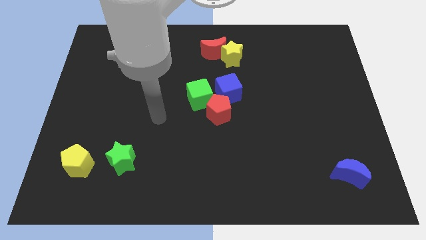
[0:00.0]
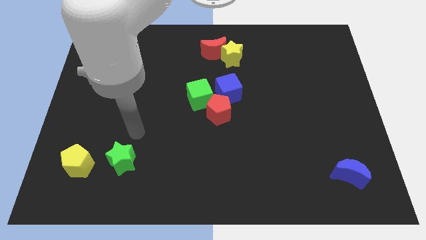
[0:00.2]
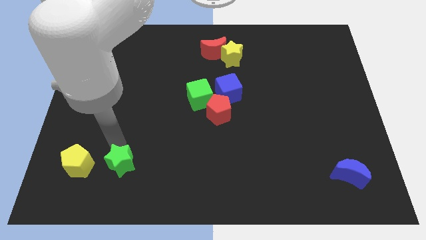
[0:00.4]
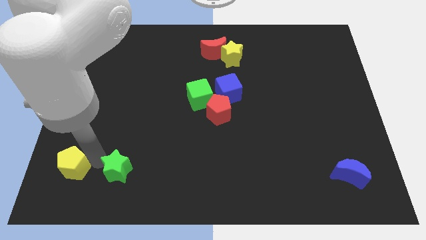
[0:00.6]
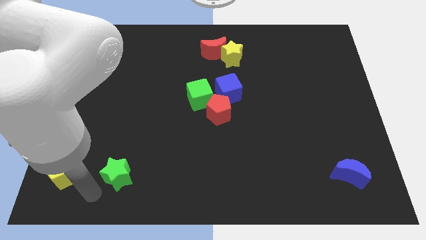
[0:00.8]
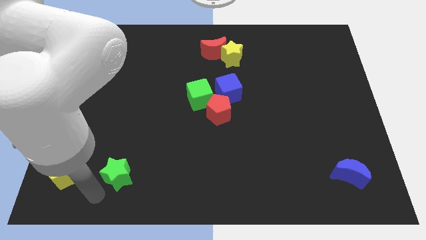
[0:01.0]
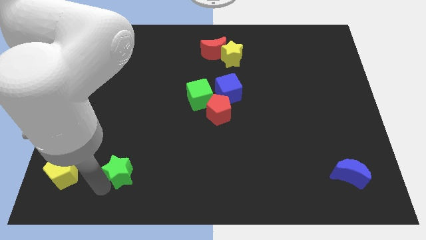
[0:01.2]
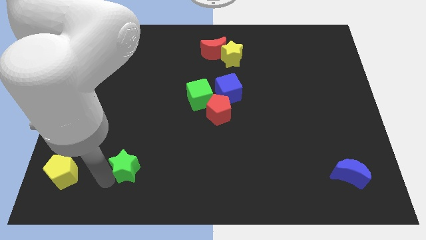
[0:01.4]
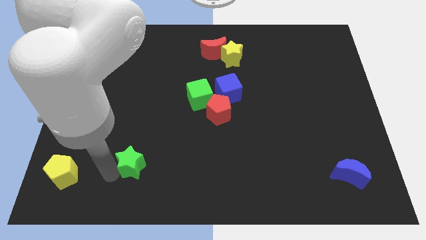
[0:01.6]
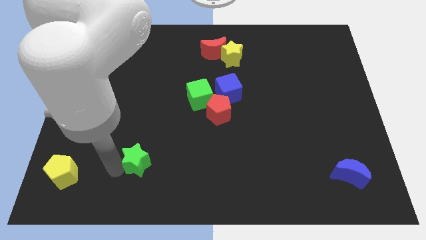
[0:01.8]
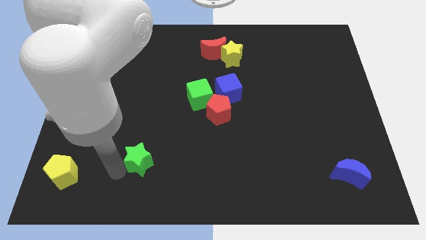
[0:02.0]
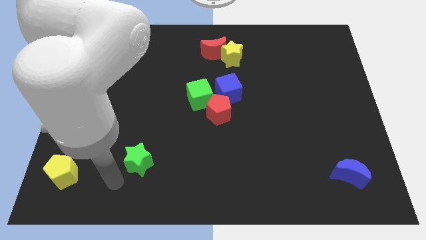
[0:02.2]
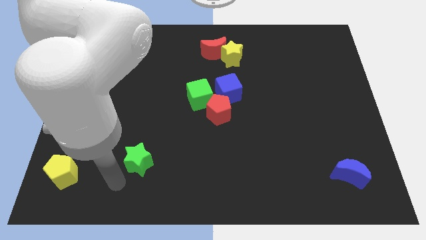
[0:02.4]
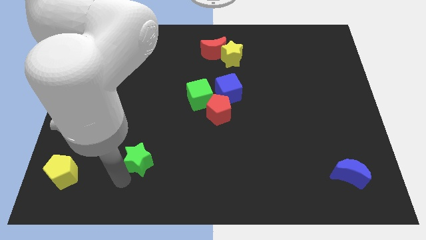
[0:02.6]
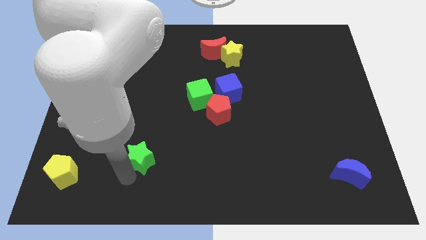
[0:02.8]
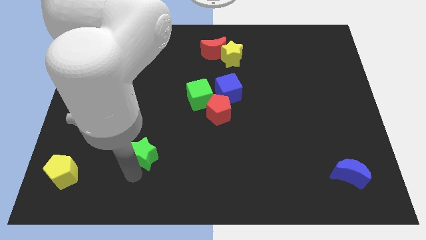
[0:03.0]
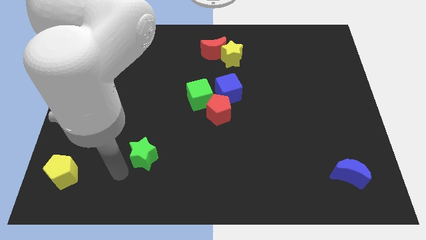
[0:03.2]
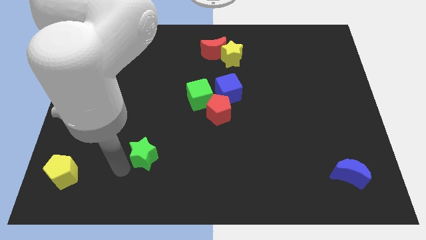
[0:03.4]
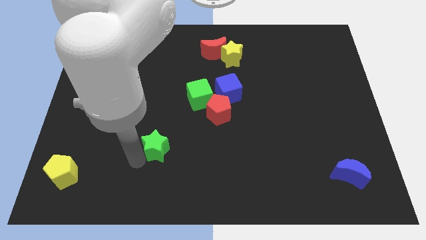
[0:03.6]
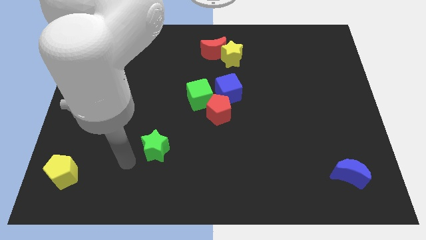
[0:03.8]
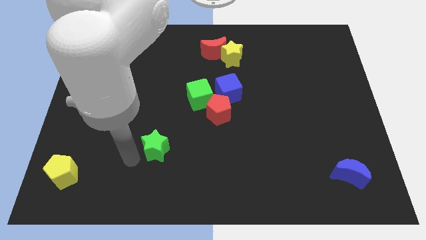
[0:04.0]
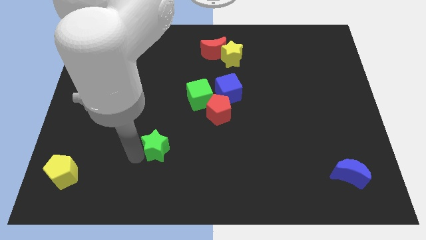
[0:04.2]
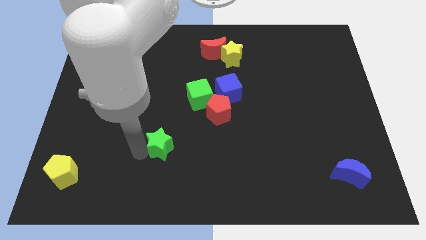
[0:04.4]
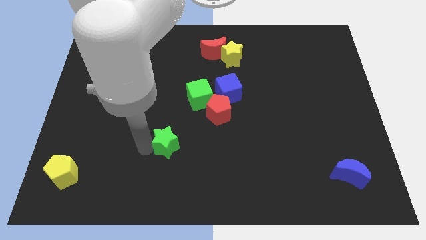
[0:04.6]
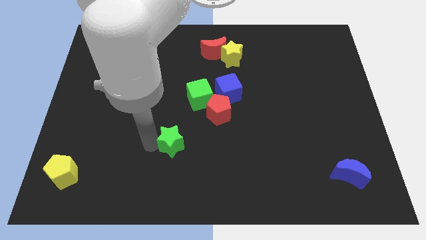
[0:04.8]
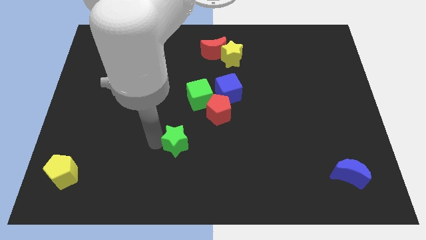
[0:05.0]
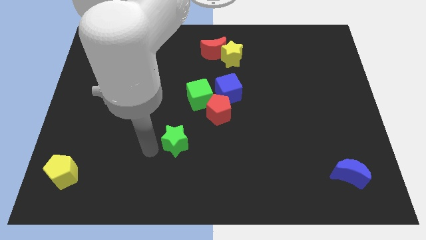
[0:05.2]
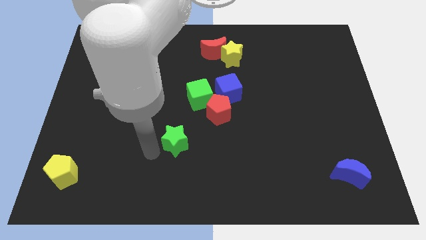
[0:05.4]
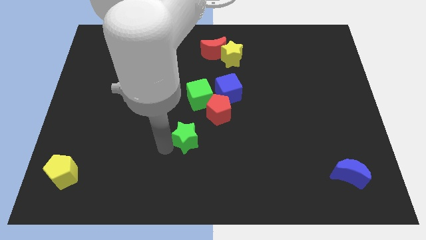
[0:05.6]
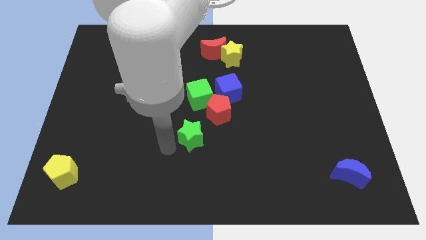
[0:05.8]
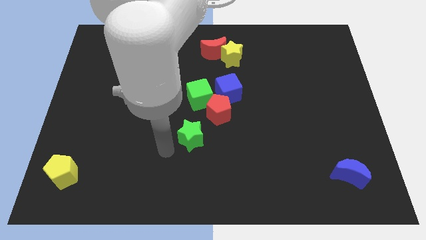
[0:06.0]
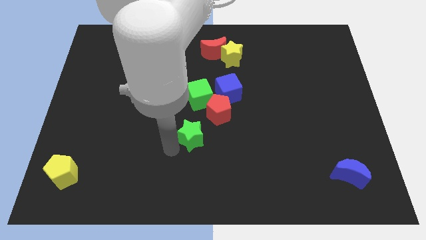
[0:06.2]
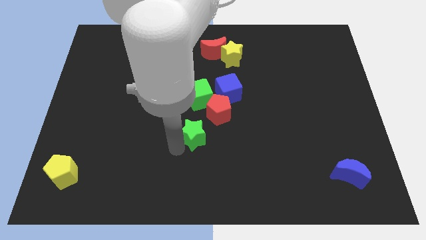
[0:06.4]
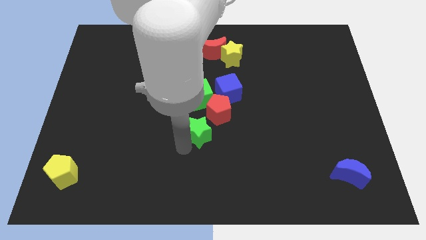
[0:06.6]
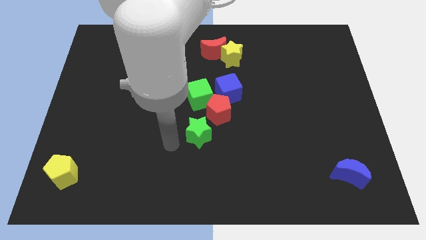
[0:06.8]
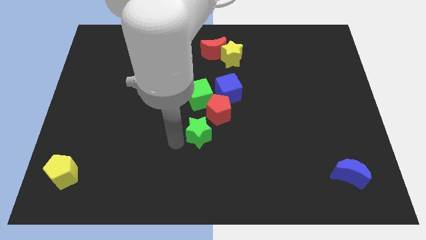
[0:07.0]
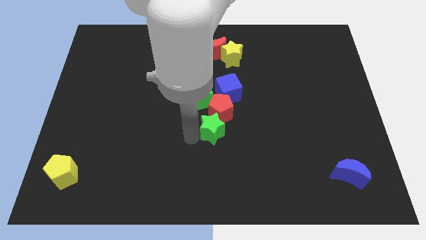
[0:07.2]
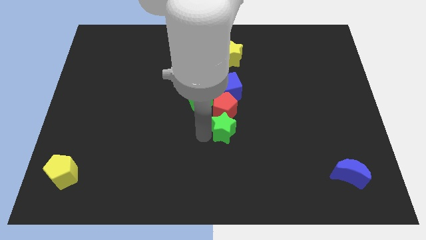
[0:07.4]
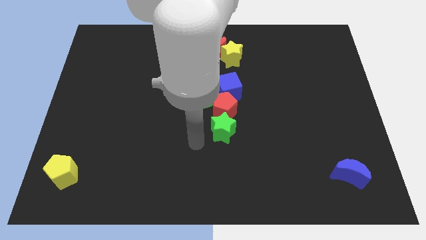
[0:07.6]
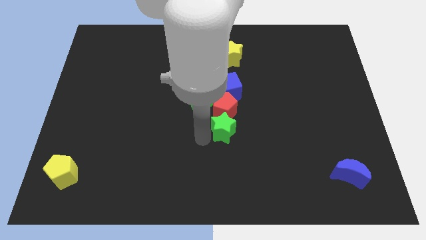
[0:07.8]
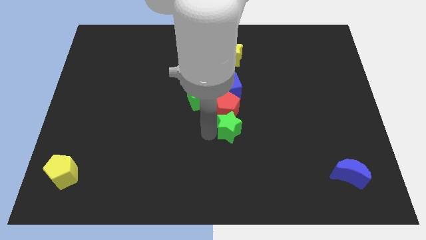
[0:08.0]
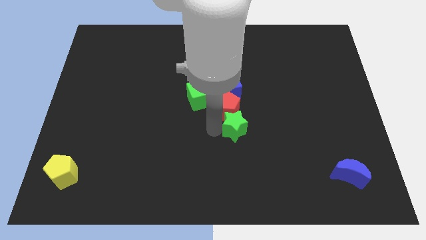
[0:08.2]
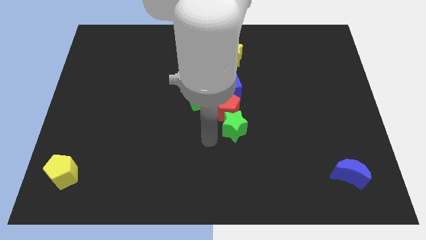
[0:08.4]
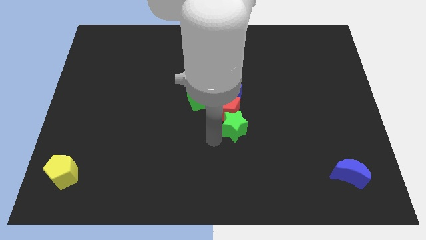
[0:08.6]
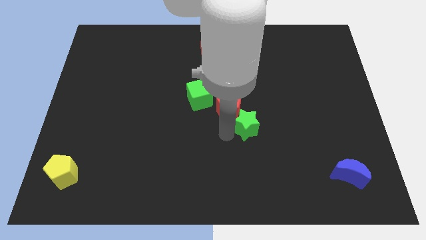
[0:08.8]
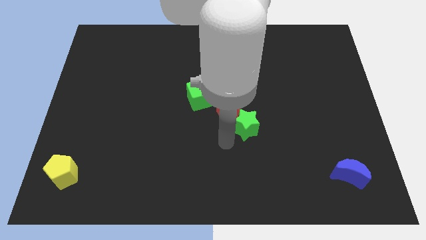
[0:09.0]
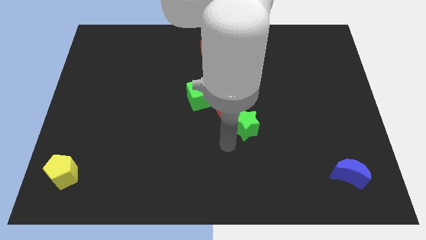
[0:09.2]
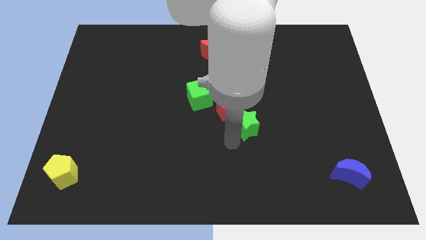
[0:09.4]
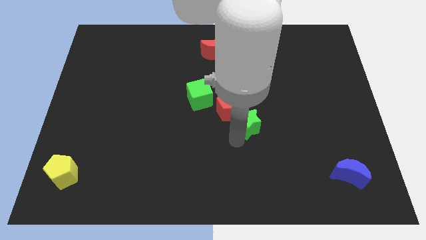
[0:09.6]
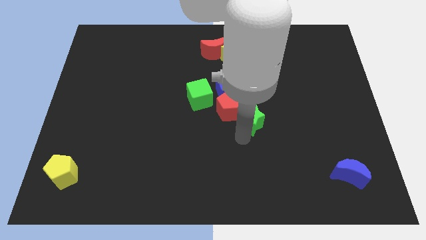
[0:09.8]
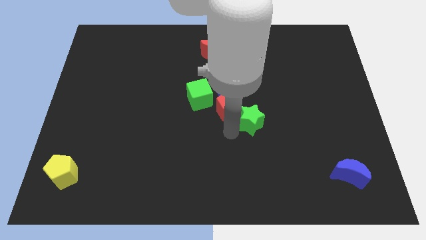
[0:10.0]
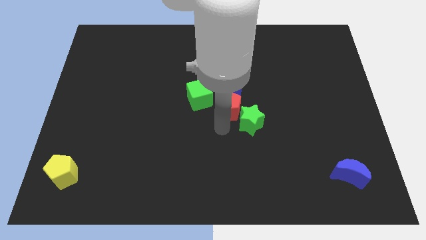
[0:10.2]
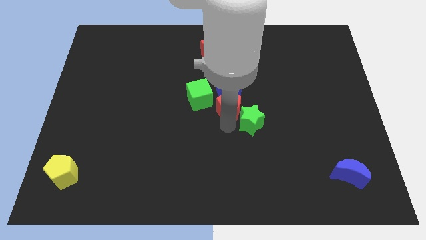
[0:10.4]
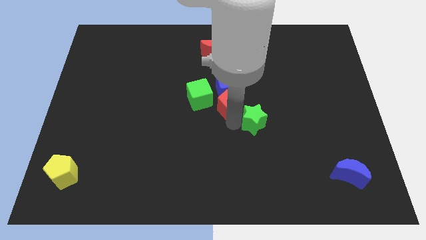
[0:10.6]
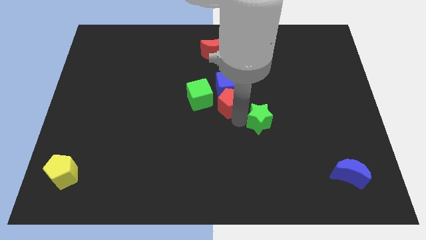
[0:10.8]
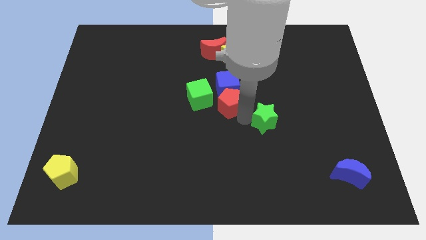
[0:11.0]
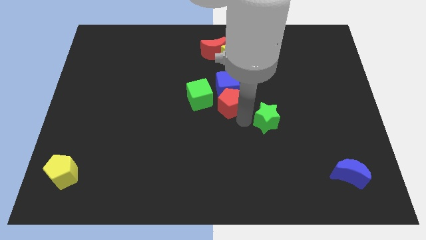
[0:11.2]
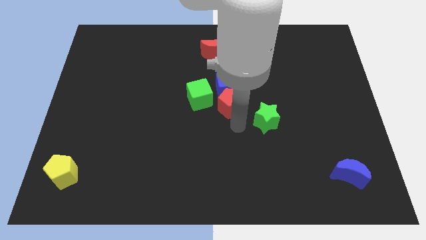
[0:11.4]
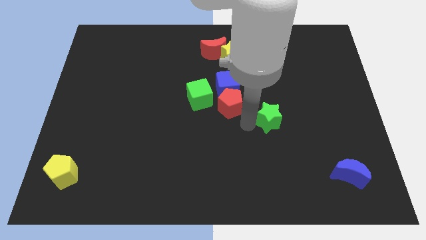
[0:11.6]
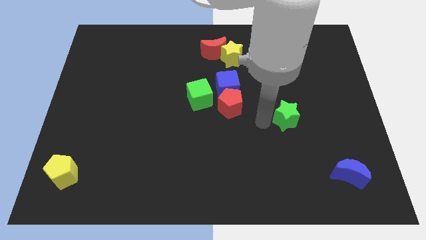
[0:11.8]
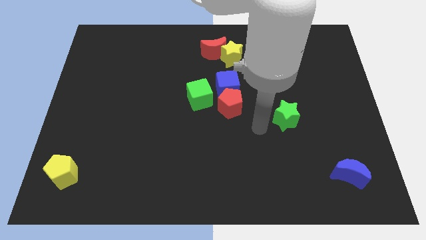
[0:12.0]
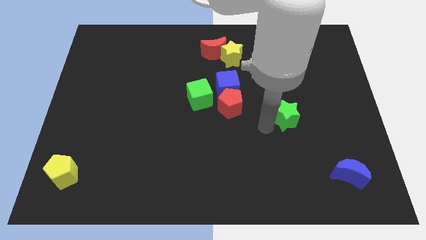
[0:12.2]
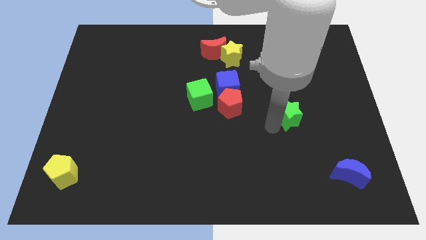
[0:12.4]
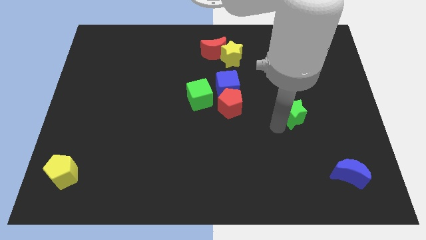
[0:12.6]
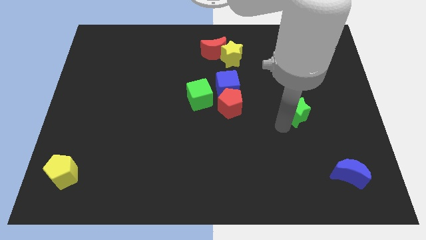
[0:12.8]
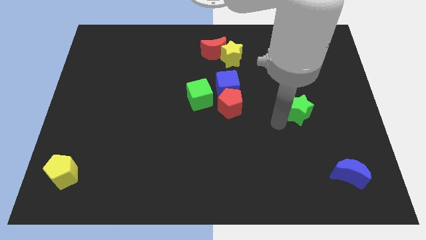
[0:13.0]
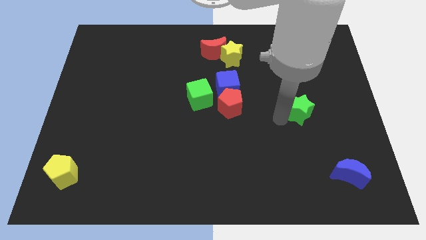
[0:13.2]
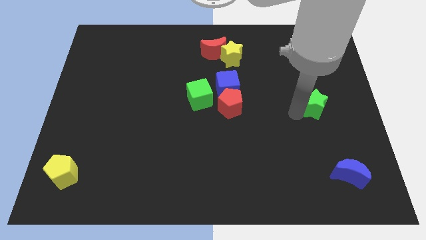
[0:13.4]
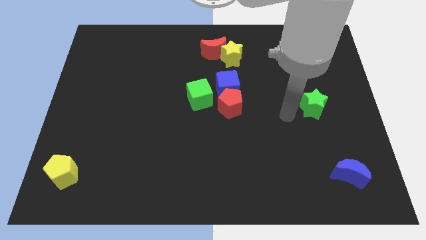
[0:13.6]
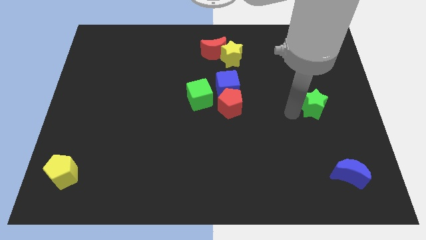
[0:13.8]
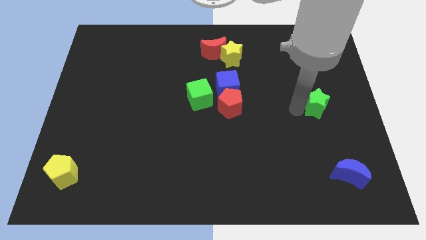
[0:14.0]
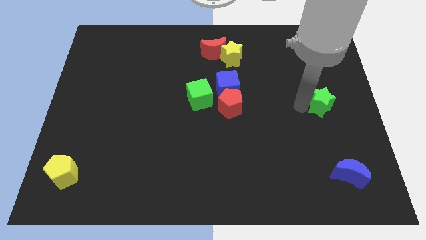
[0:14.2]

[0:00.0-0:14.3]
move the green star to the center right

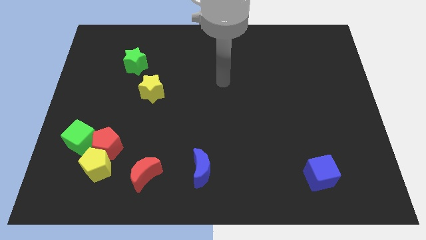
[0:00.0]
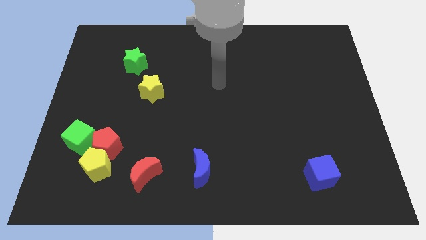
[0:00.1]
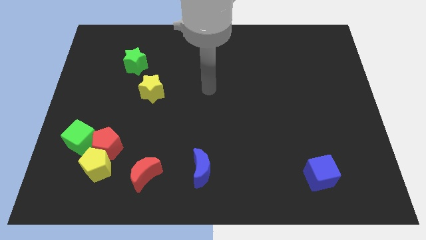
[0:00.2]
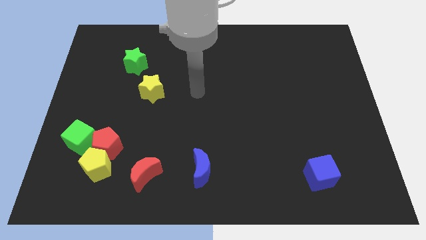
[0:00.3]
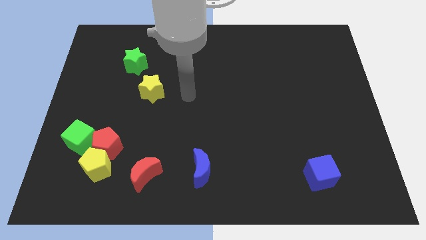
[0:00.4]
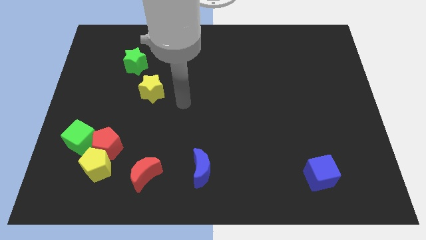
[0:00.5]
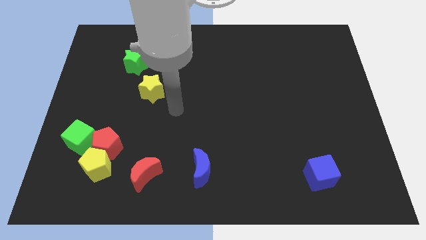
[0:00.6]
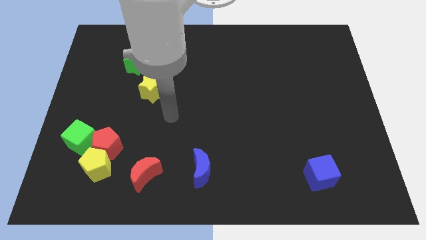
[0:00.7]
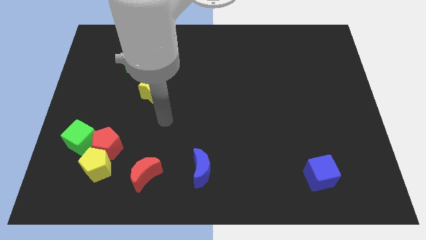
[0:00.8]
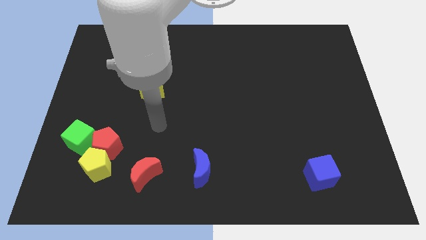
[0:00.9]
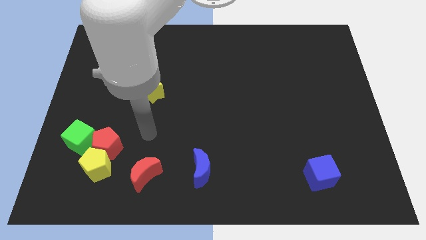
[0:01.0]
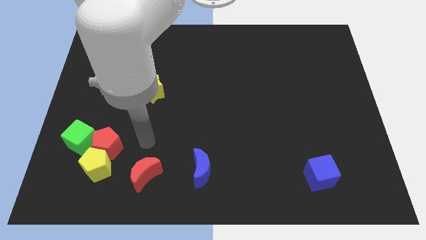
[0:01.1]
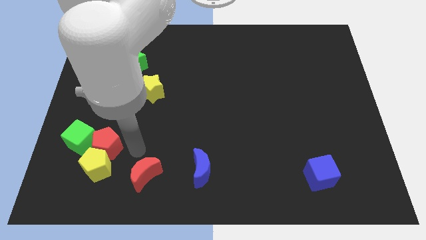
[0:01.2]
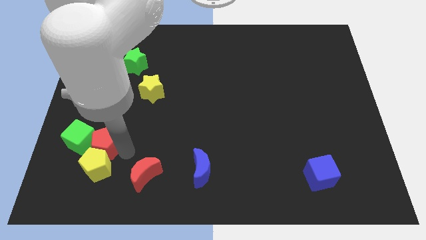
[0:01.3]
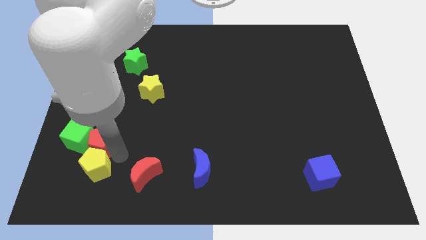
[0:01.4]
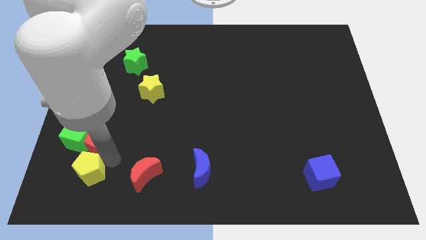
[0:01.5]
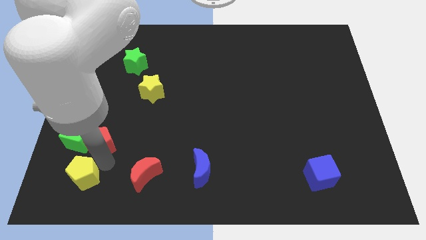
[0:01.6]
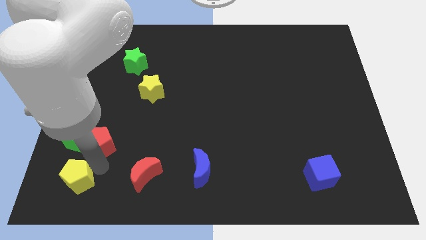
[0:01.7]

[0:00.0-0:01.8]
put the yellow pentagon to the bottom left corner
